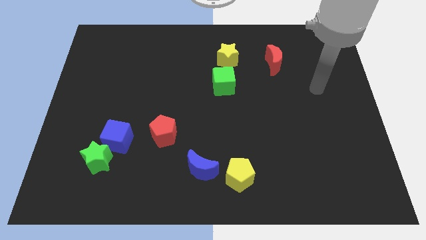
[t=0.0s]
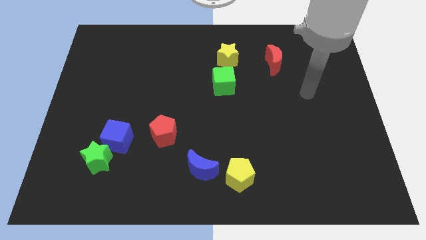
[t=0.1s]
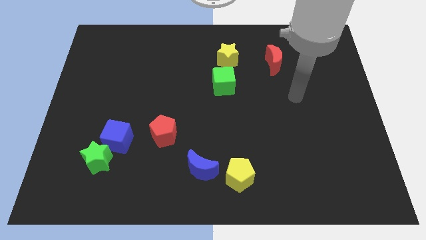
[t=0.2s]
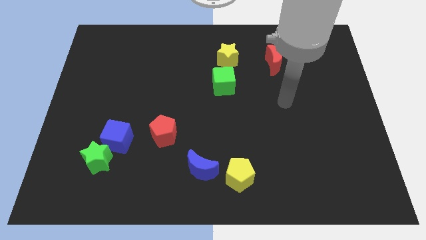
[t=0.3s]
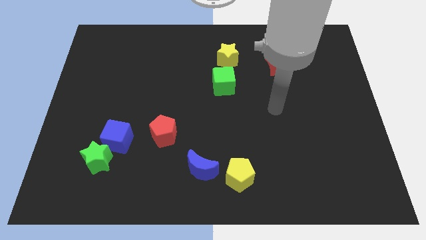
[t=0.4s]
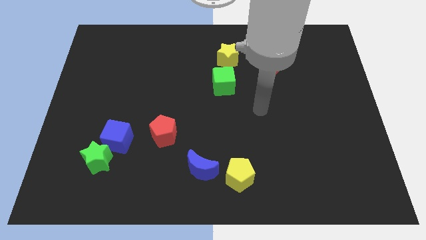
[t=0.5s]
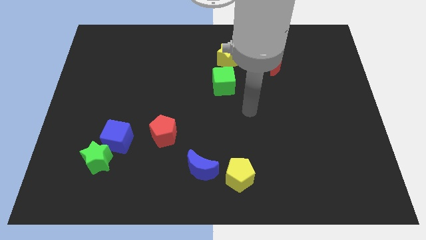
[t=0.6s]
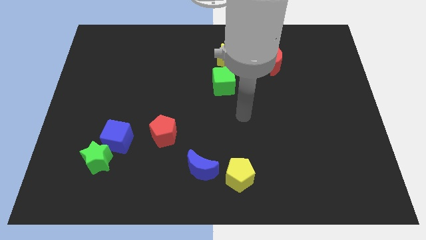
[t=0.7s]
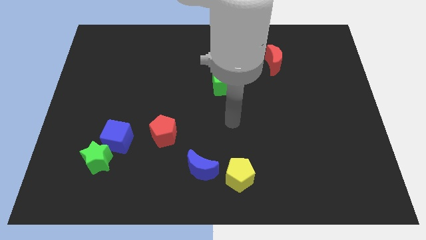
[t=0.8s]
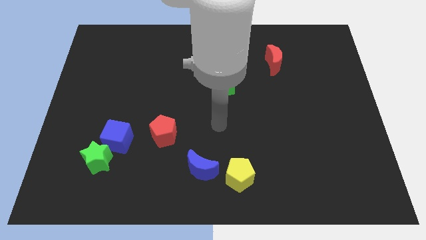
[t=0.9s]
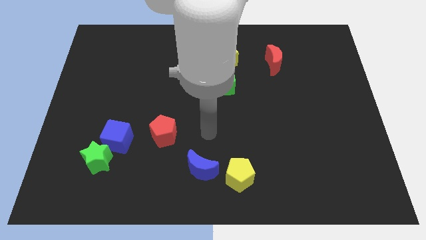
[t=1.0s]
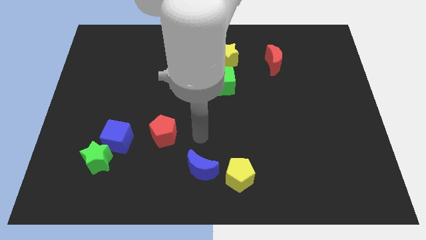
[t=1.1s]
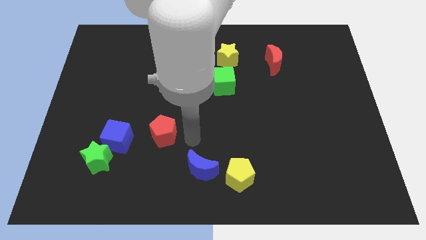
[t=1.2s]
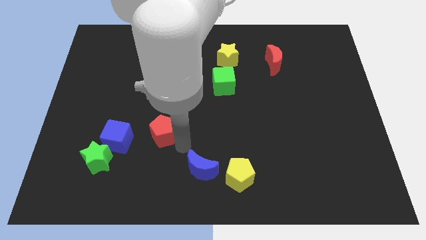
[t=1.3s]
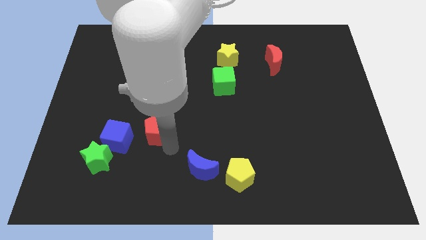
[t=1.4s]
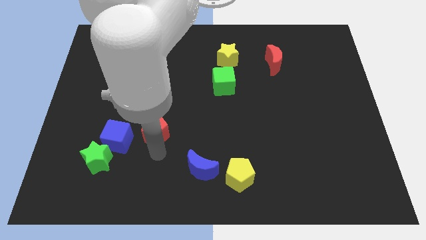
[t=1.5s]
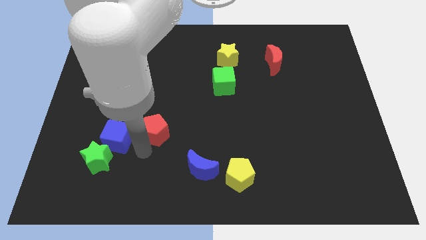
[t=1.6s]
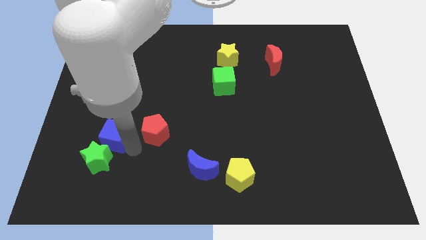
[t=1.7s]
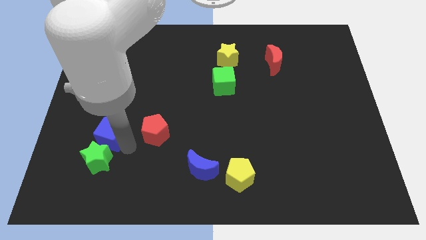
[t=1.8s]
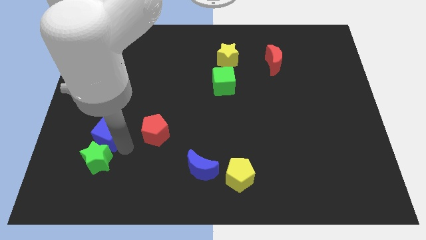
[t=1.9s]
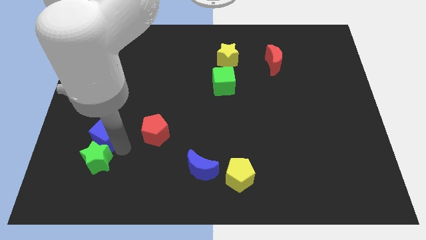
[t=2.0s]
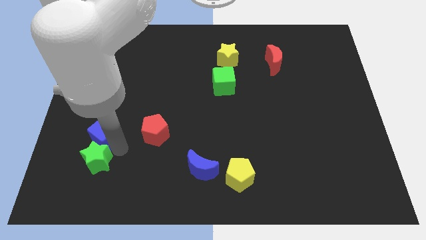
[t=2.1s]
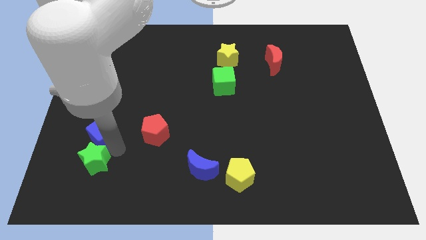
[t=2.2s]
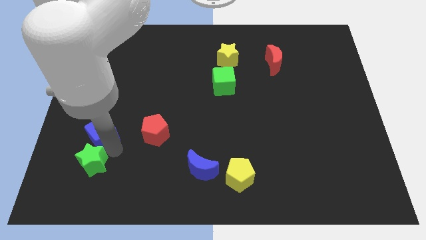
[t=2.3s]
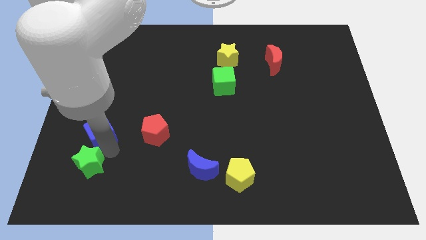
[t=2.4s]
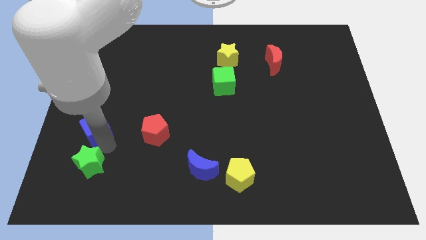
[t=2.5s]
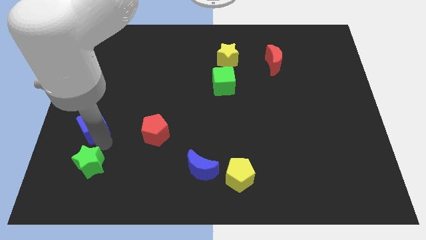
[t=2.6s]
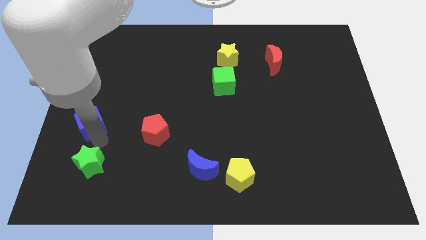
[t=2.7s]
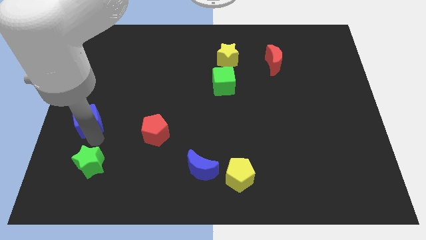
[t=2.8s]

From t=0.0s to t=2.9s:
pull the green star apart from the blue cube

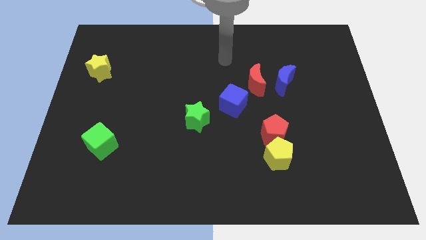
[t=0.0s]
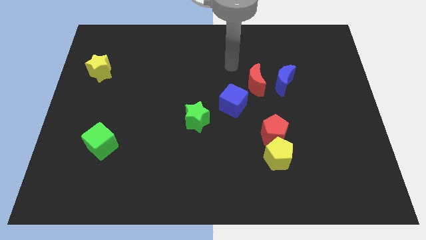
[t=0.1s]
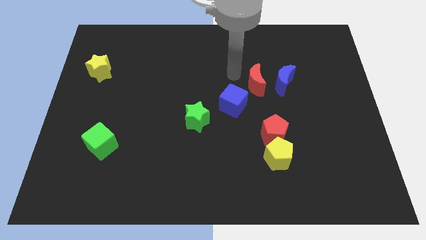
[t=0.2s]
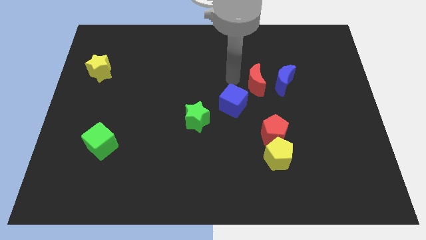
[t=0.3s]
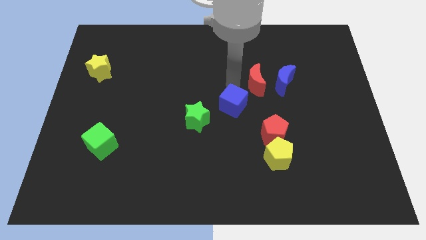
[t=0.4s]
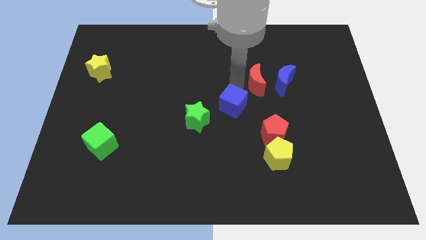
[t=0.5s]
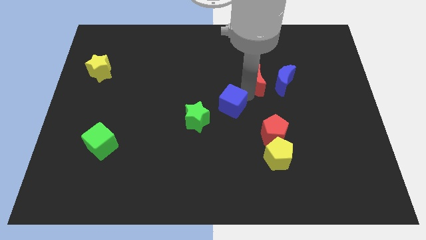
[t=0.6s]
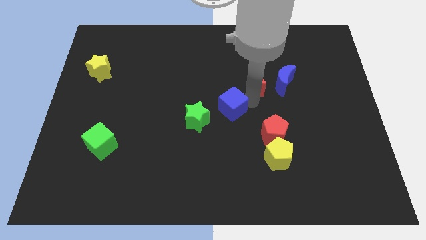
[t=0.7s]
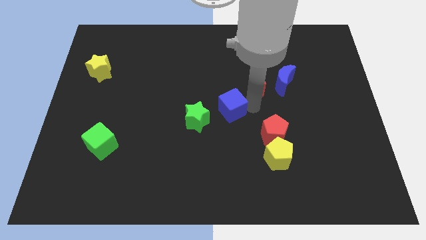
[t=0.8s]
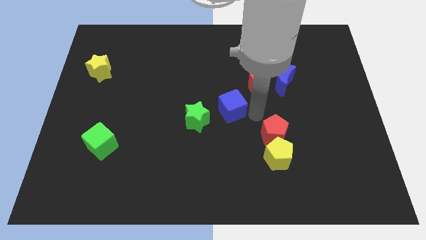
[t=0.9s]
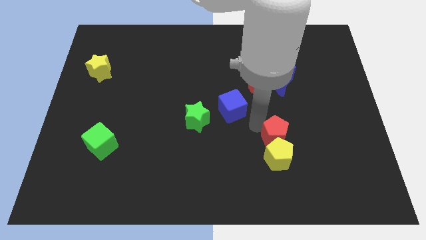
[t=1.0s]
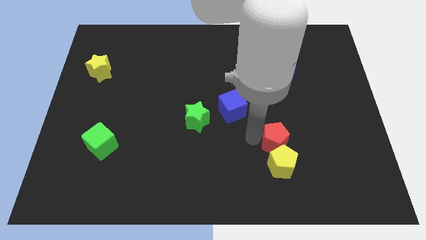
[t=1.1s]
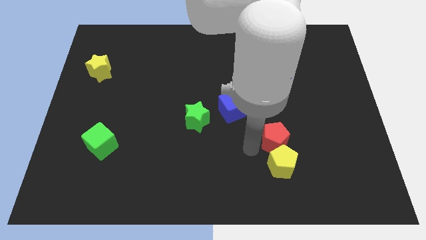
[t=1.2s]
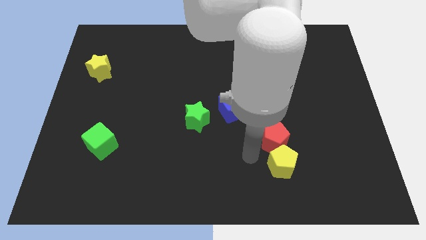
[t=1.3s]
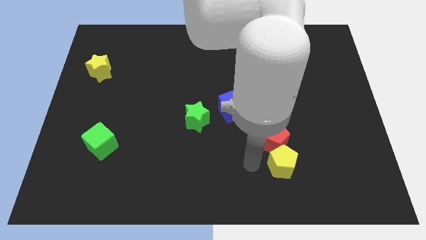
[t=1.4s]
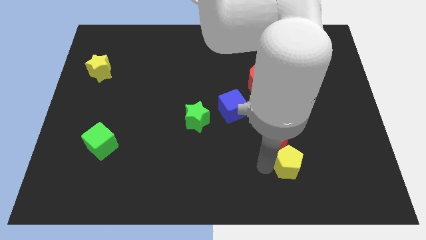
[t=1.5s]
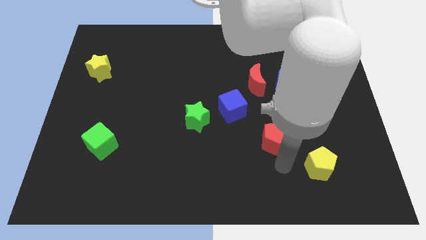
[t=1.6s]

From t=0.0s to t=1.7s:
pull the red pentagon apart from the yellow pentagon

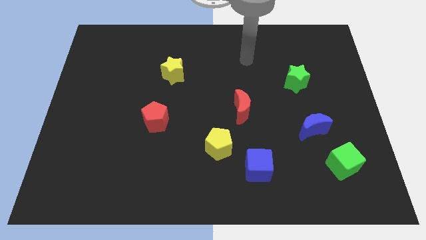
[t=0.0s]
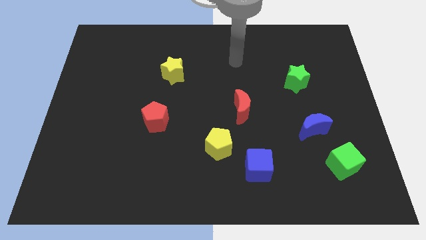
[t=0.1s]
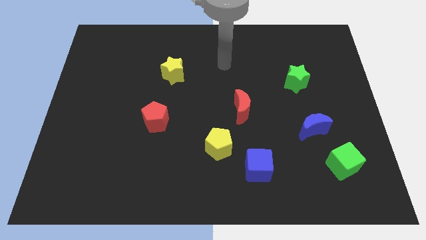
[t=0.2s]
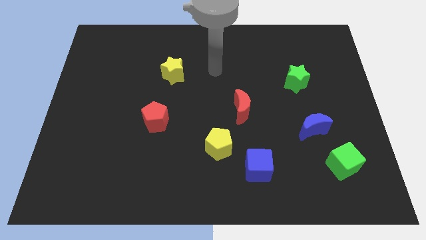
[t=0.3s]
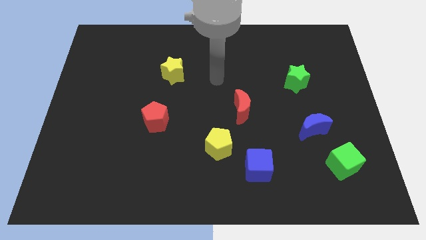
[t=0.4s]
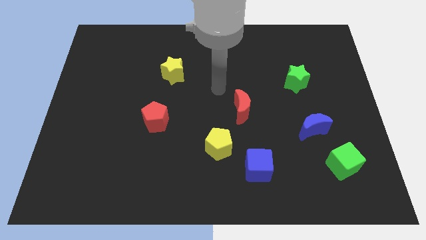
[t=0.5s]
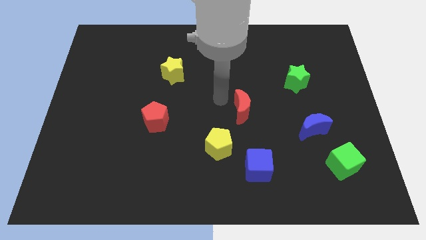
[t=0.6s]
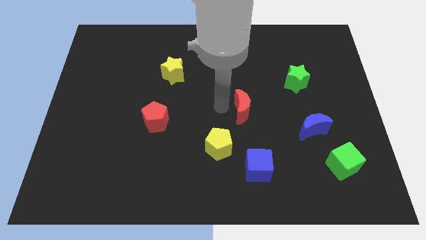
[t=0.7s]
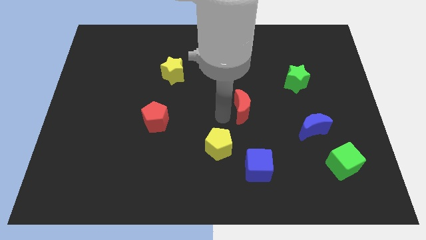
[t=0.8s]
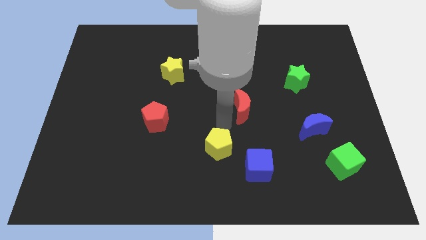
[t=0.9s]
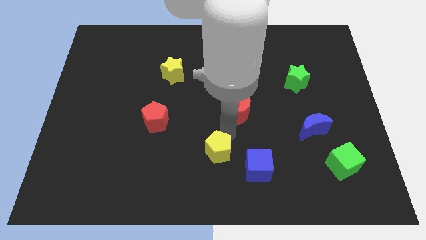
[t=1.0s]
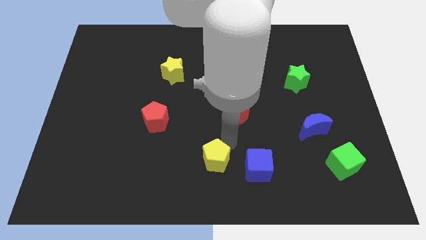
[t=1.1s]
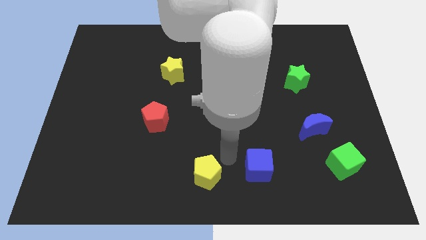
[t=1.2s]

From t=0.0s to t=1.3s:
separate the blue cube from the yellow pentagon

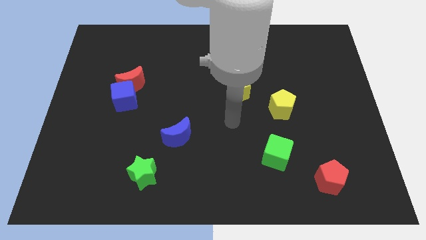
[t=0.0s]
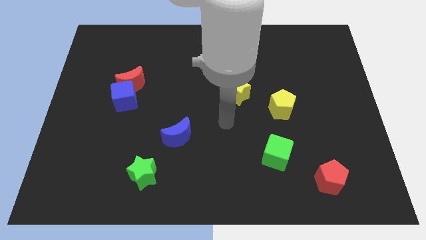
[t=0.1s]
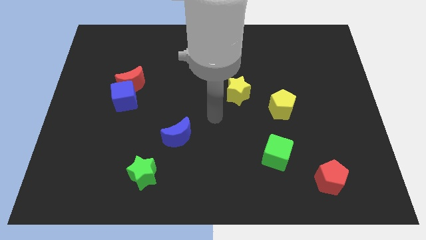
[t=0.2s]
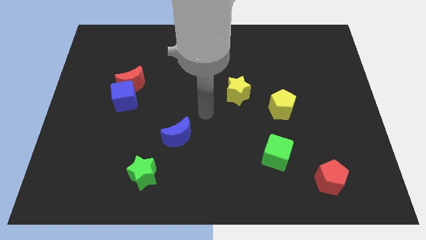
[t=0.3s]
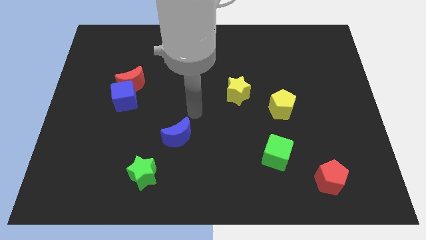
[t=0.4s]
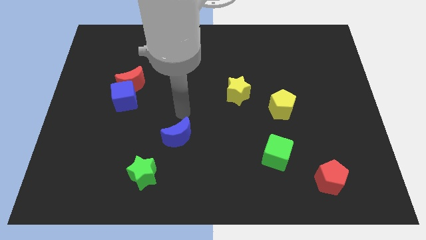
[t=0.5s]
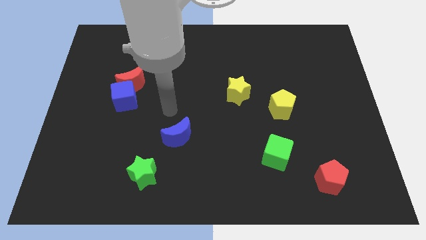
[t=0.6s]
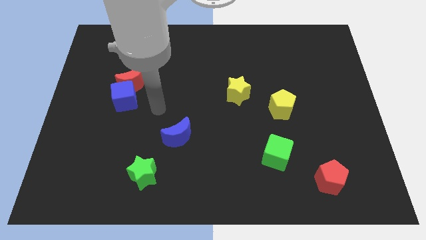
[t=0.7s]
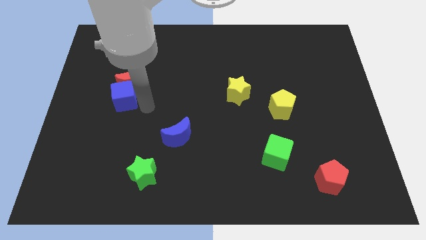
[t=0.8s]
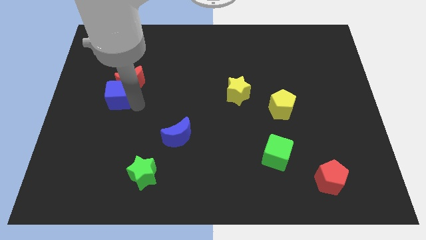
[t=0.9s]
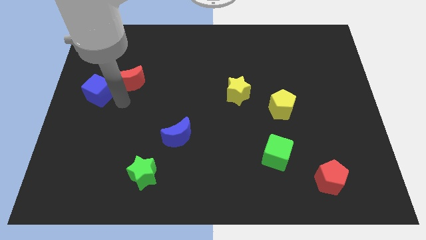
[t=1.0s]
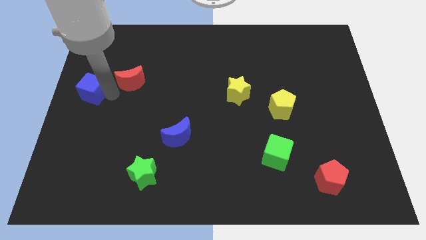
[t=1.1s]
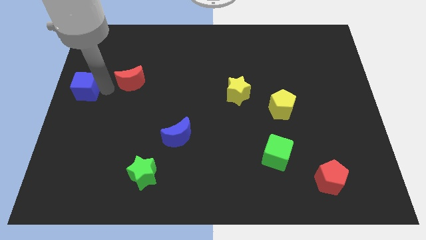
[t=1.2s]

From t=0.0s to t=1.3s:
move the red moon away from the blue cube

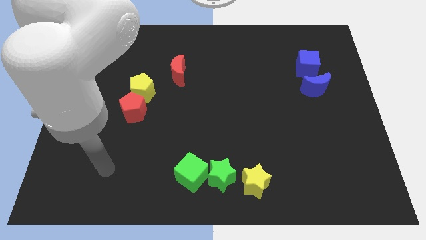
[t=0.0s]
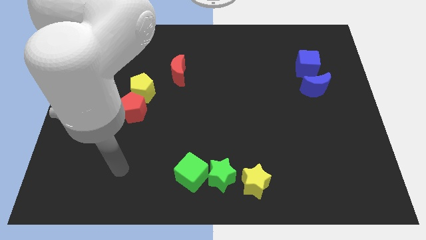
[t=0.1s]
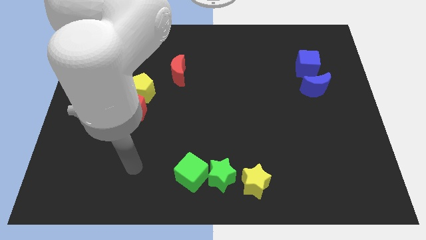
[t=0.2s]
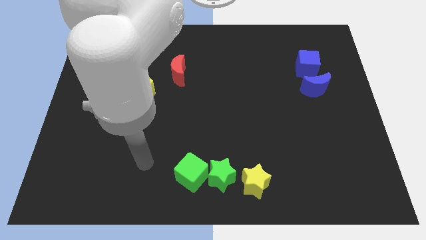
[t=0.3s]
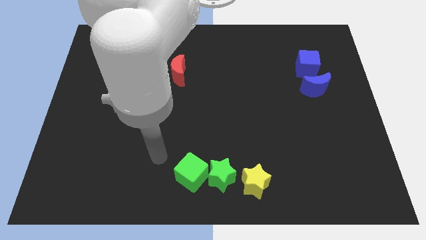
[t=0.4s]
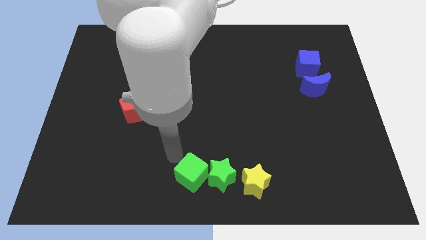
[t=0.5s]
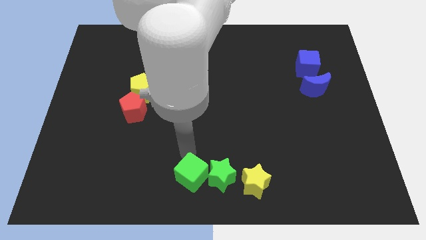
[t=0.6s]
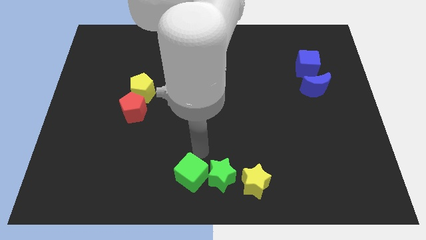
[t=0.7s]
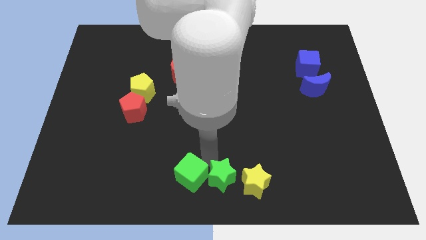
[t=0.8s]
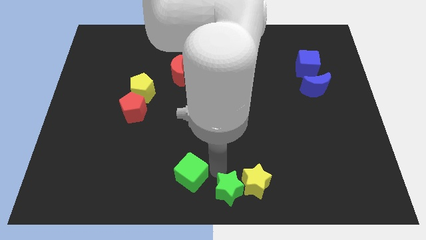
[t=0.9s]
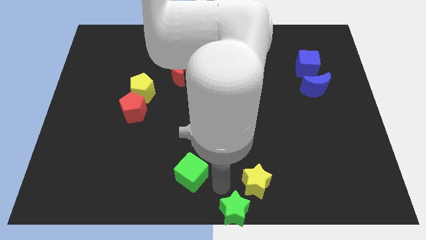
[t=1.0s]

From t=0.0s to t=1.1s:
move the green cube away from the green star

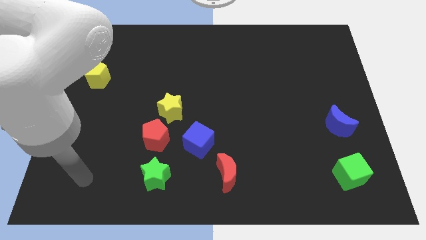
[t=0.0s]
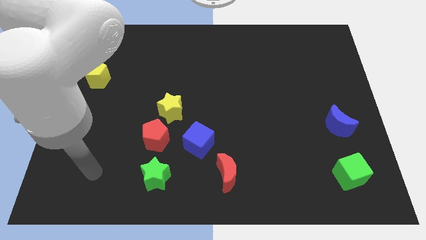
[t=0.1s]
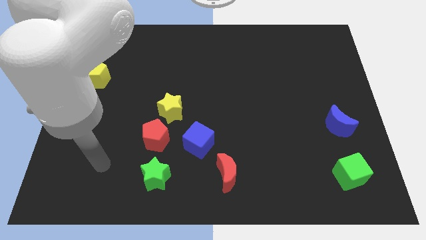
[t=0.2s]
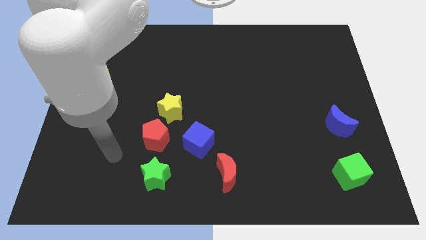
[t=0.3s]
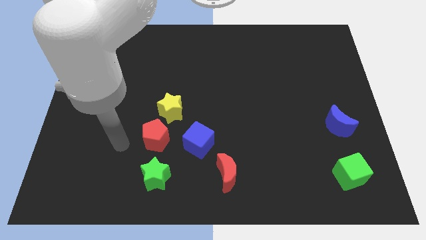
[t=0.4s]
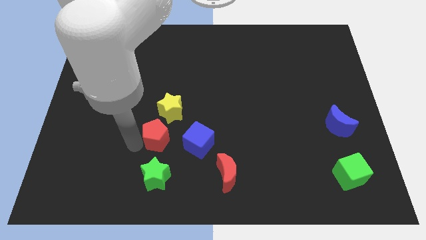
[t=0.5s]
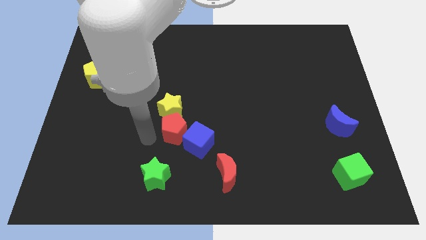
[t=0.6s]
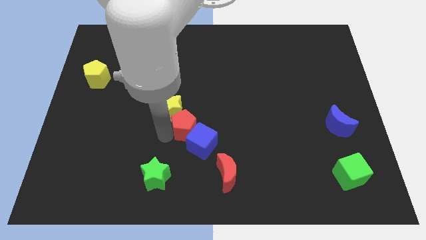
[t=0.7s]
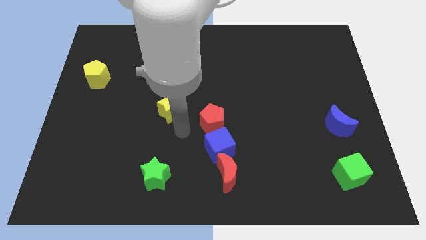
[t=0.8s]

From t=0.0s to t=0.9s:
move the yellow star away from the red pentagon
